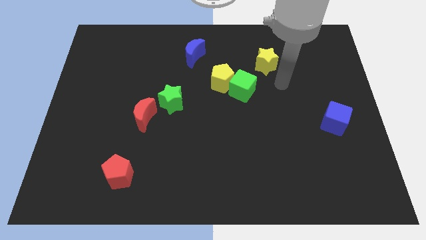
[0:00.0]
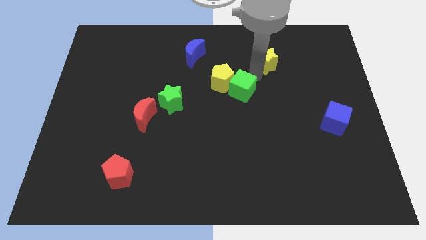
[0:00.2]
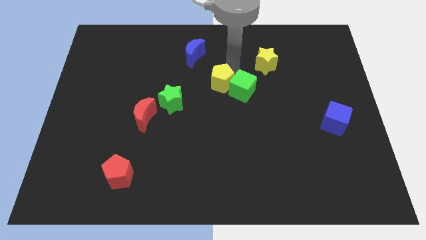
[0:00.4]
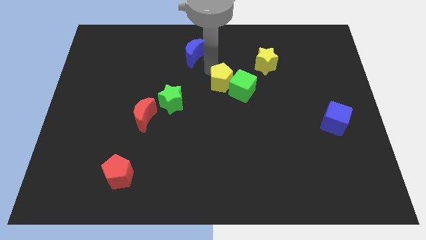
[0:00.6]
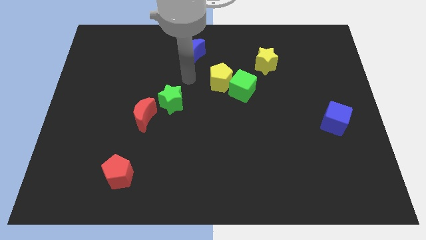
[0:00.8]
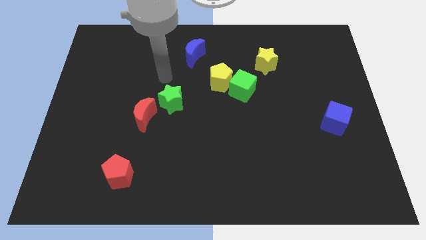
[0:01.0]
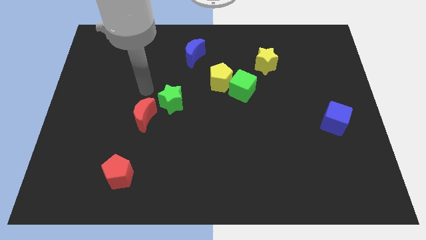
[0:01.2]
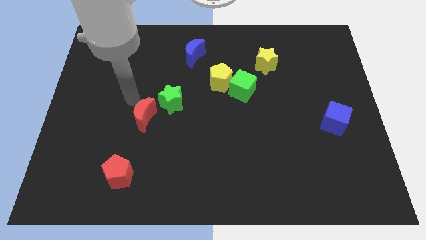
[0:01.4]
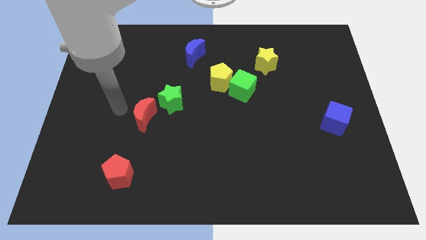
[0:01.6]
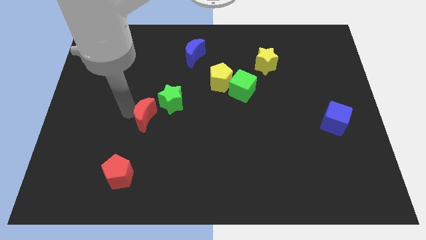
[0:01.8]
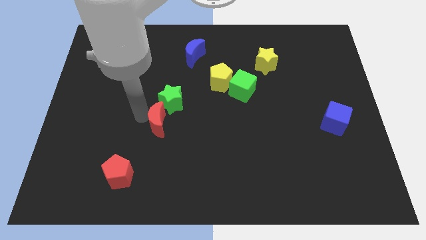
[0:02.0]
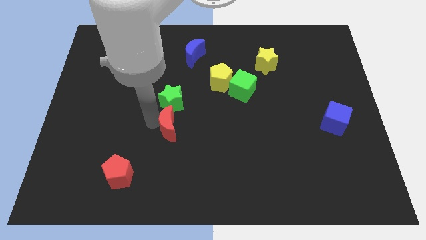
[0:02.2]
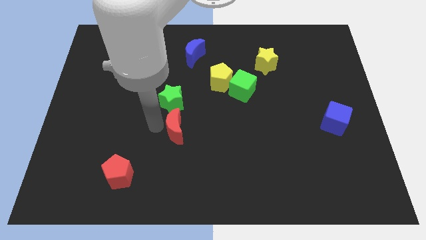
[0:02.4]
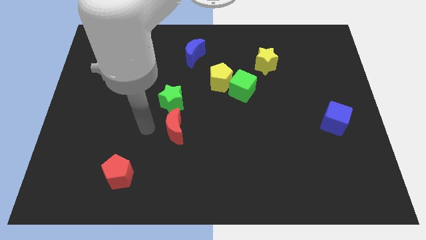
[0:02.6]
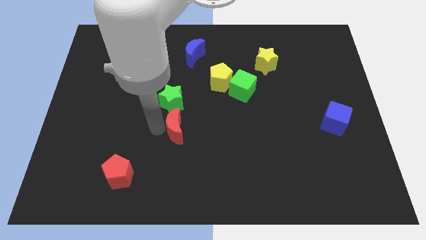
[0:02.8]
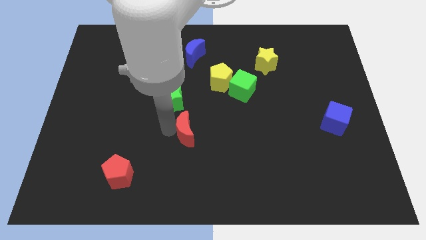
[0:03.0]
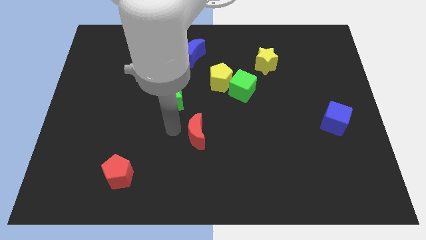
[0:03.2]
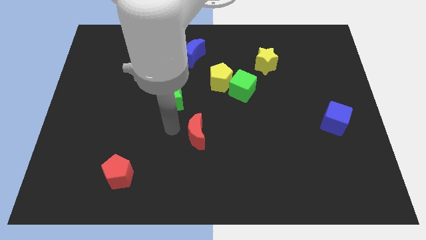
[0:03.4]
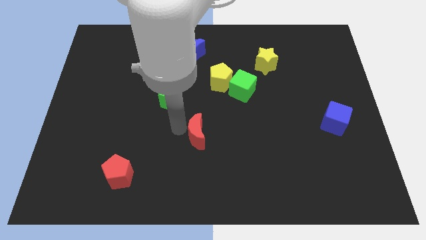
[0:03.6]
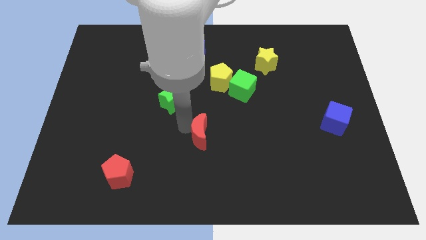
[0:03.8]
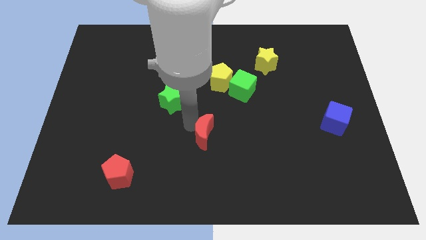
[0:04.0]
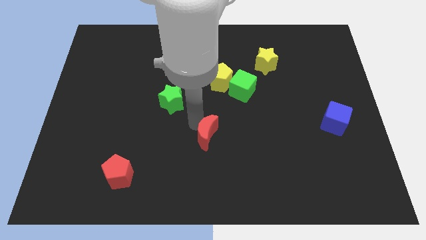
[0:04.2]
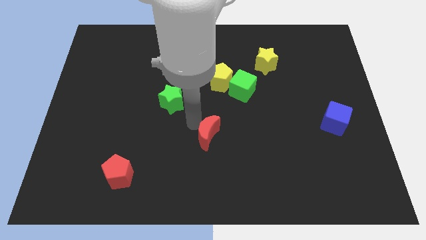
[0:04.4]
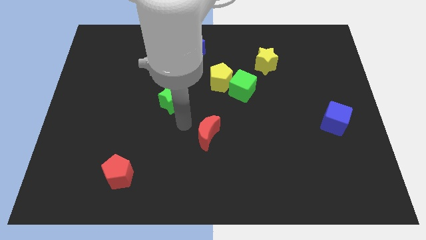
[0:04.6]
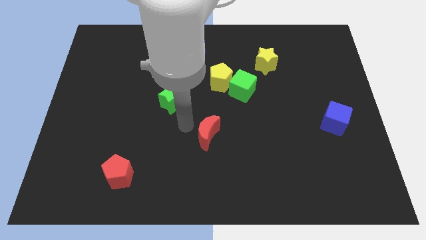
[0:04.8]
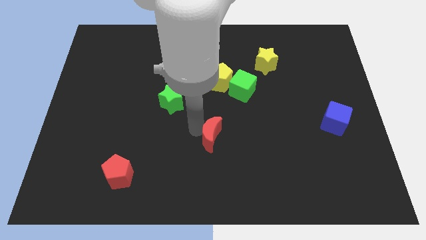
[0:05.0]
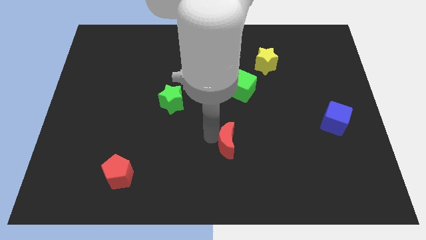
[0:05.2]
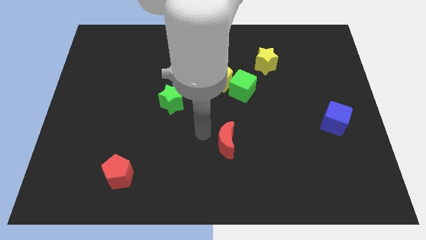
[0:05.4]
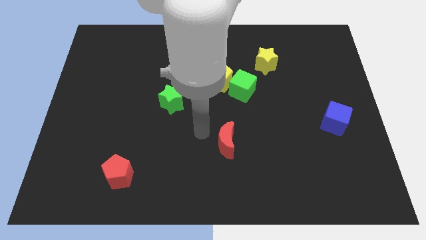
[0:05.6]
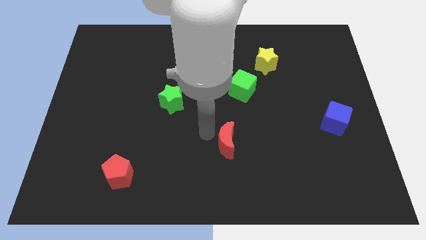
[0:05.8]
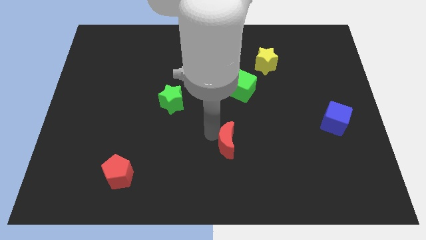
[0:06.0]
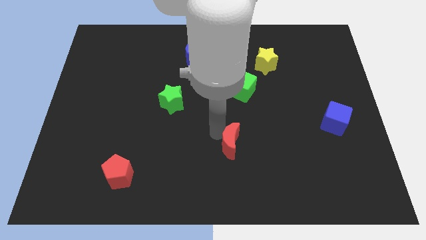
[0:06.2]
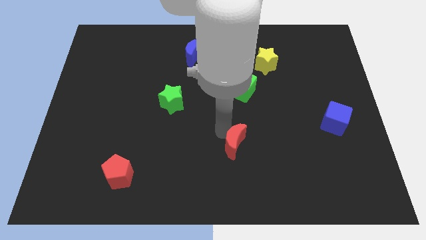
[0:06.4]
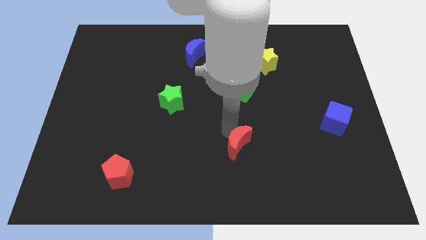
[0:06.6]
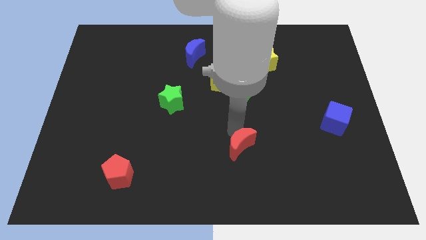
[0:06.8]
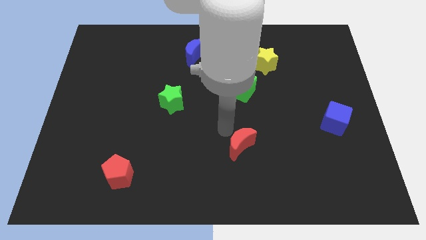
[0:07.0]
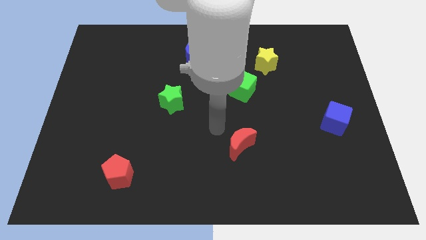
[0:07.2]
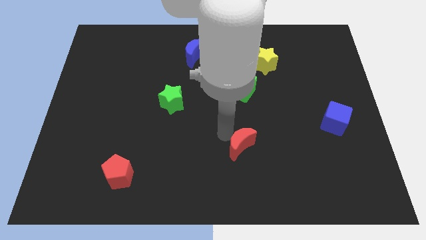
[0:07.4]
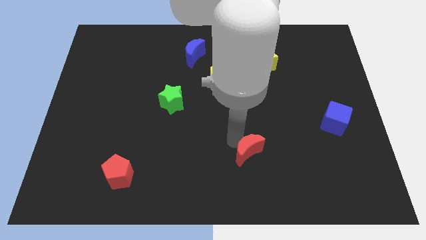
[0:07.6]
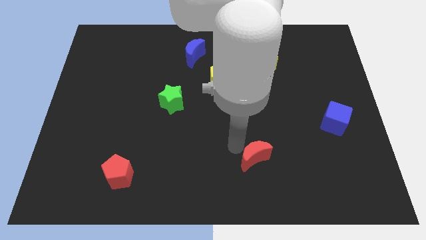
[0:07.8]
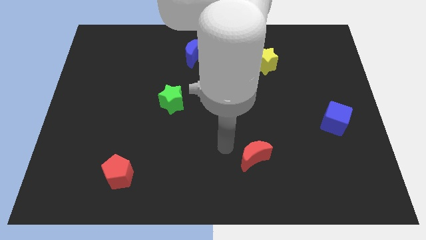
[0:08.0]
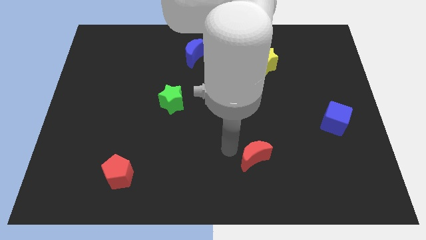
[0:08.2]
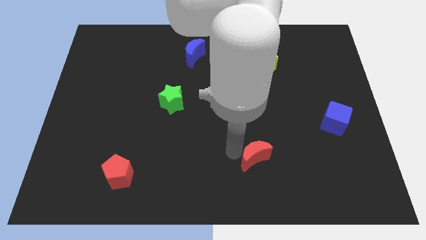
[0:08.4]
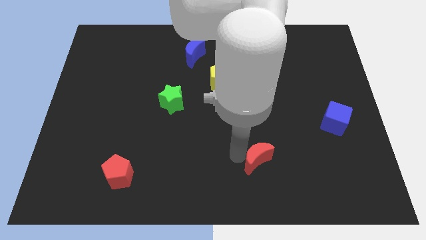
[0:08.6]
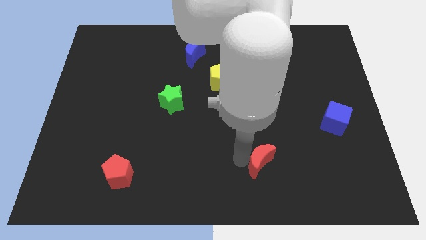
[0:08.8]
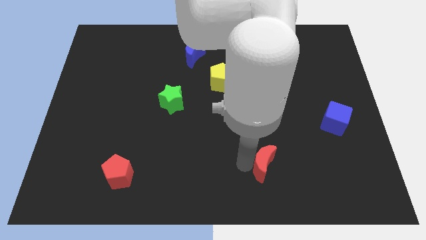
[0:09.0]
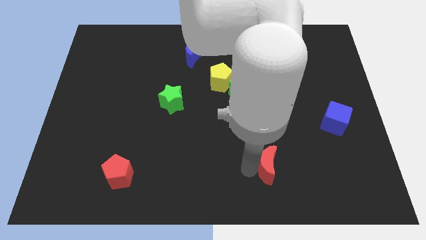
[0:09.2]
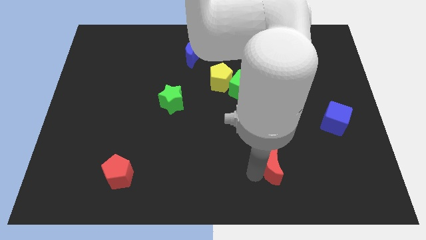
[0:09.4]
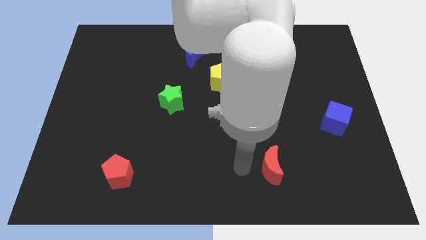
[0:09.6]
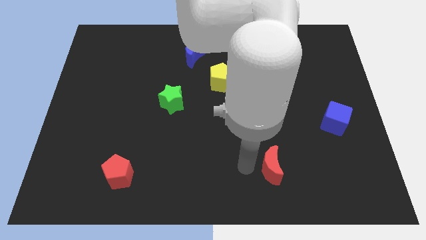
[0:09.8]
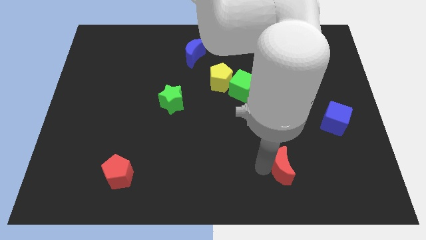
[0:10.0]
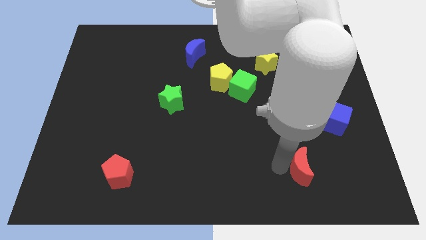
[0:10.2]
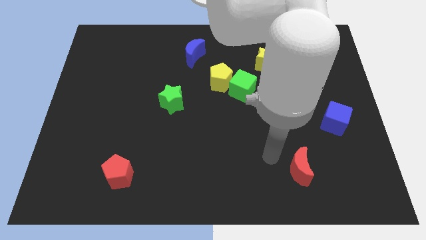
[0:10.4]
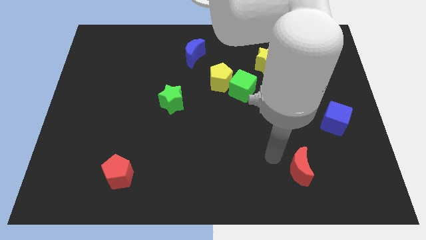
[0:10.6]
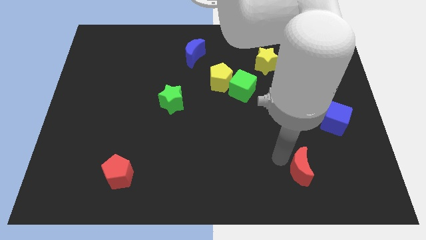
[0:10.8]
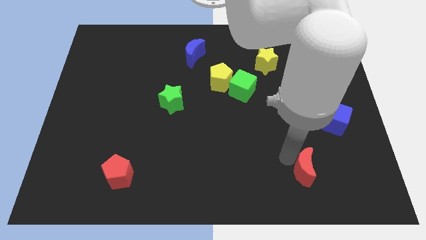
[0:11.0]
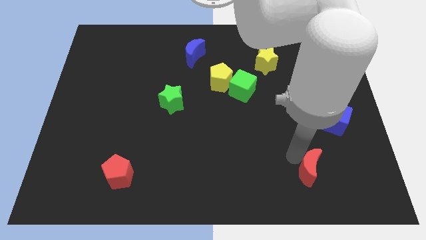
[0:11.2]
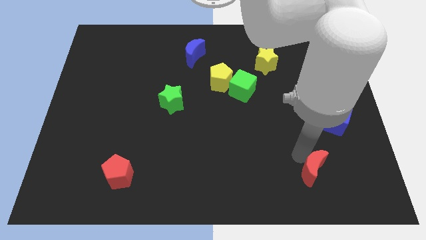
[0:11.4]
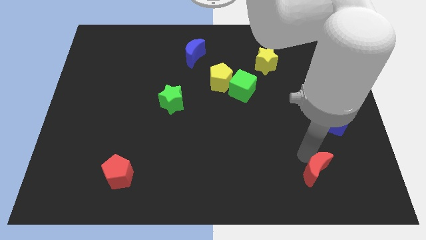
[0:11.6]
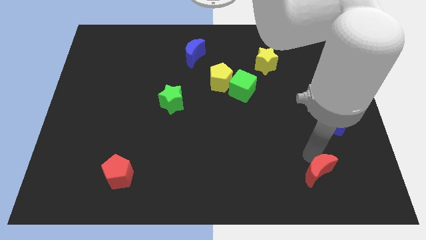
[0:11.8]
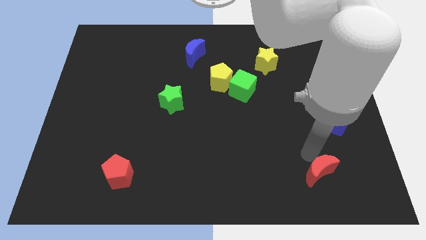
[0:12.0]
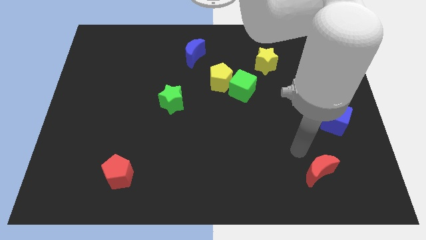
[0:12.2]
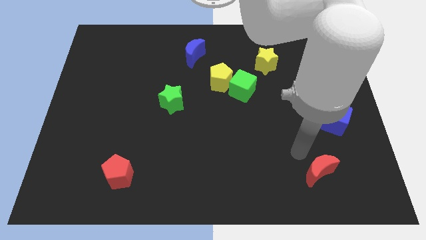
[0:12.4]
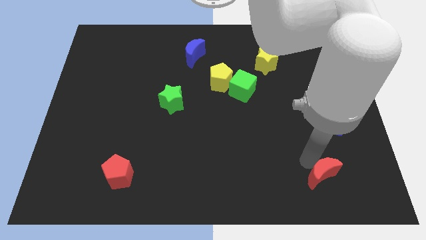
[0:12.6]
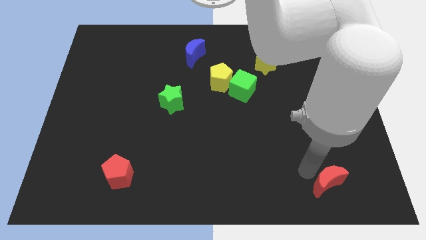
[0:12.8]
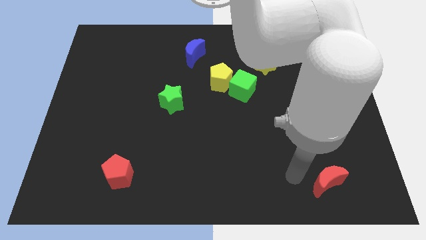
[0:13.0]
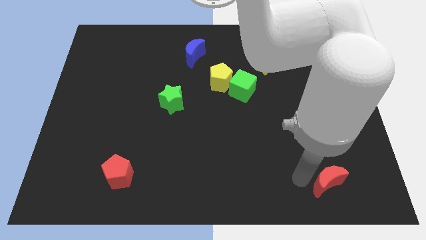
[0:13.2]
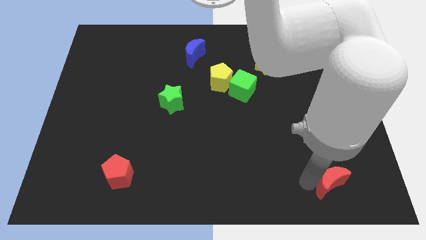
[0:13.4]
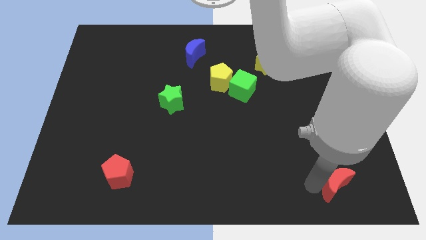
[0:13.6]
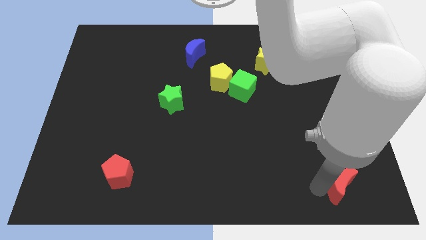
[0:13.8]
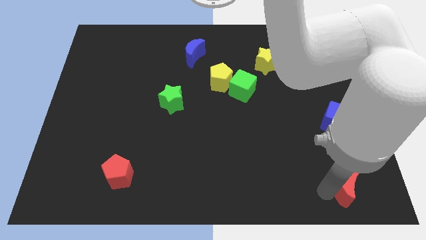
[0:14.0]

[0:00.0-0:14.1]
slide the red moon to the bottom right
